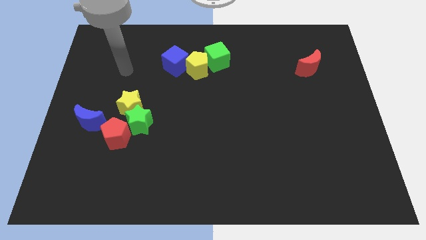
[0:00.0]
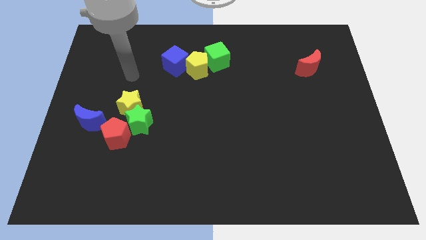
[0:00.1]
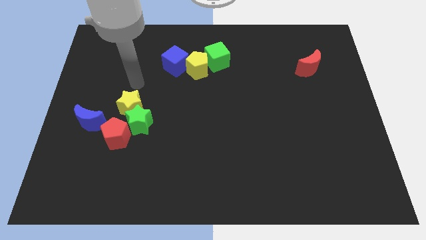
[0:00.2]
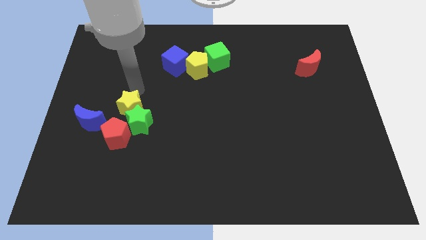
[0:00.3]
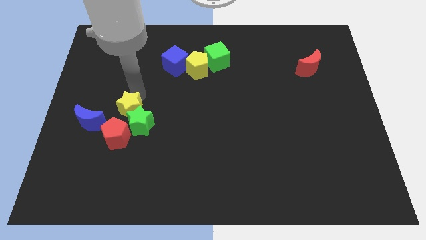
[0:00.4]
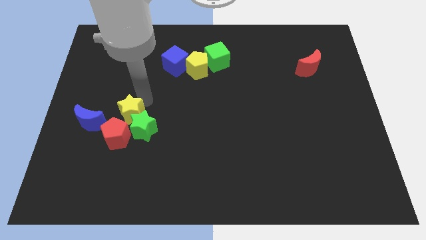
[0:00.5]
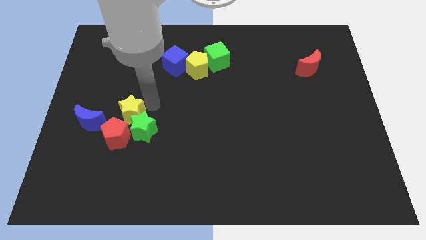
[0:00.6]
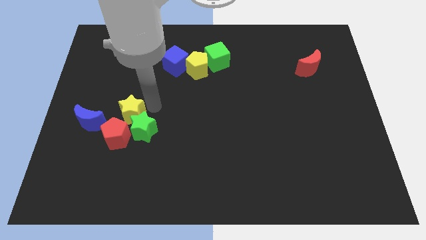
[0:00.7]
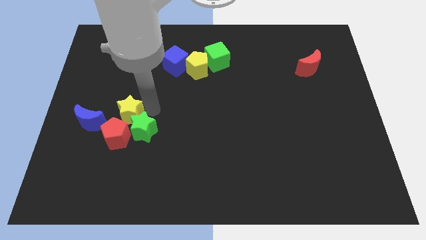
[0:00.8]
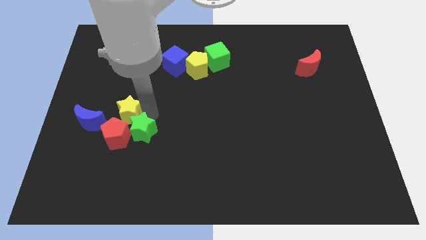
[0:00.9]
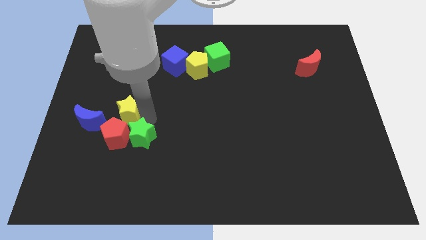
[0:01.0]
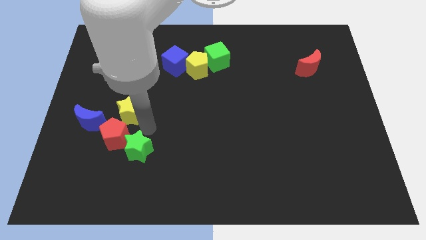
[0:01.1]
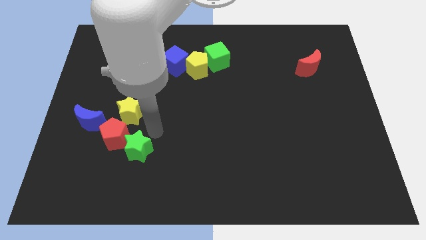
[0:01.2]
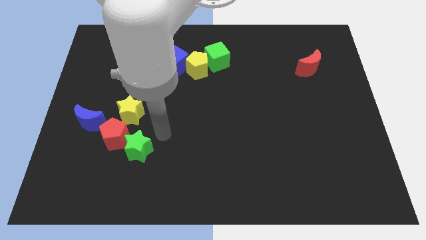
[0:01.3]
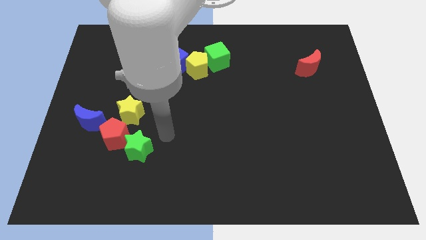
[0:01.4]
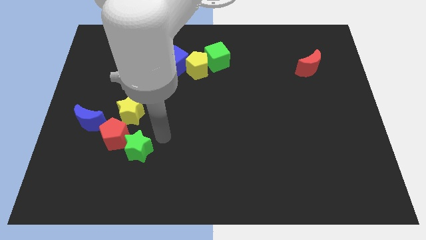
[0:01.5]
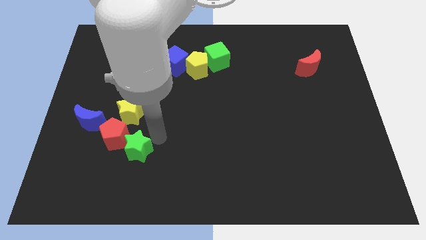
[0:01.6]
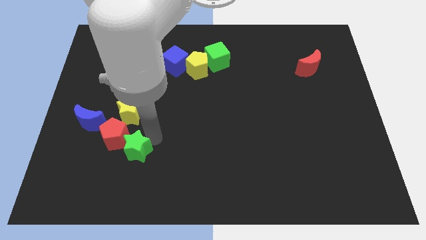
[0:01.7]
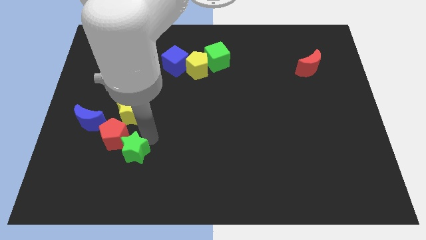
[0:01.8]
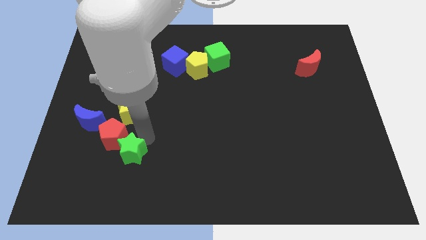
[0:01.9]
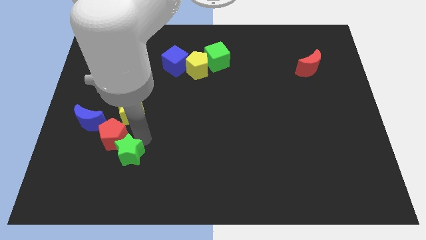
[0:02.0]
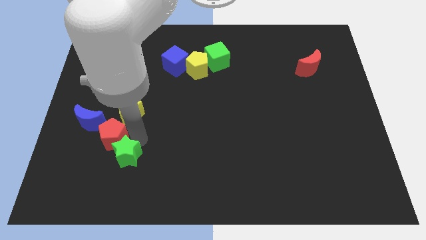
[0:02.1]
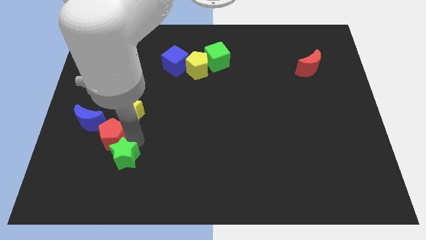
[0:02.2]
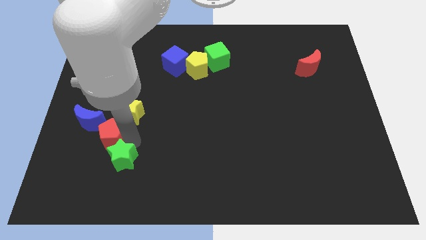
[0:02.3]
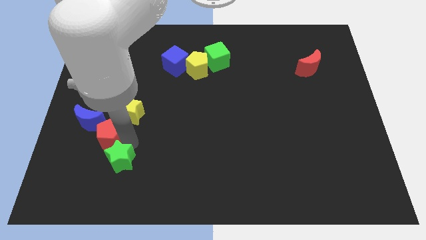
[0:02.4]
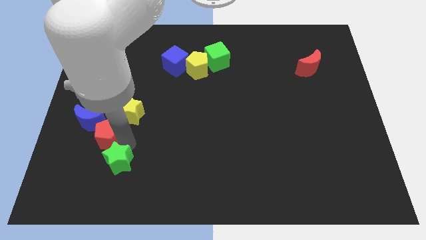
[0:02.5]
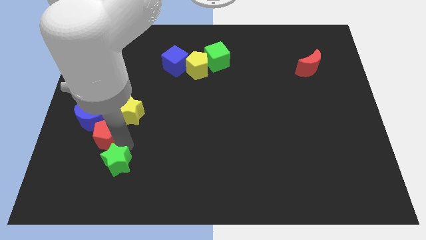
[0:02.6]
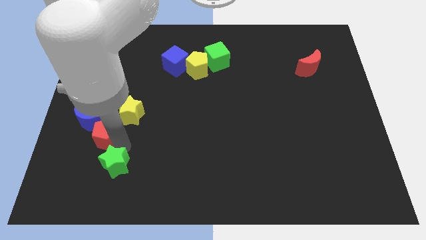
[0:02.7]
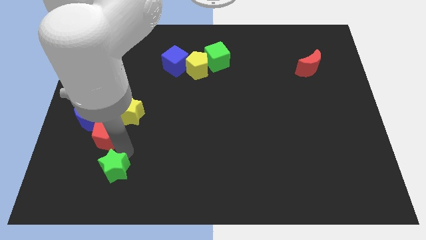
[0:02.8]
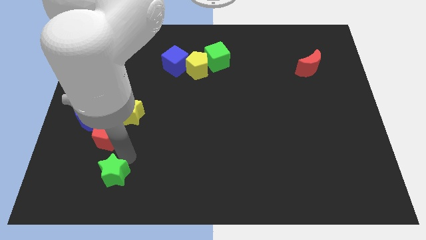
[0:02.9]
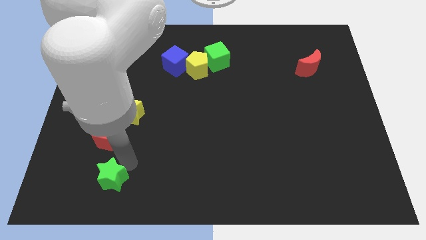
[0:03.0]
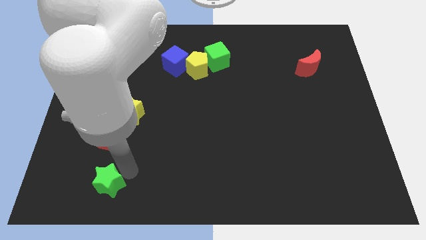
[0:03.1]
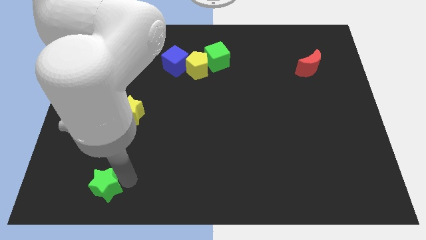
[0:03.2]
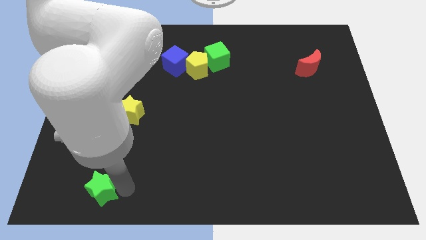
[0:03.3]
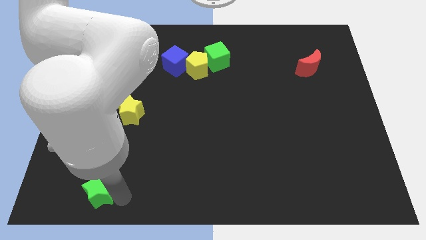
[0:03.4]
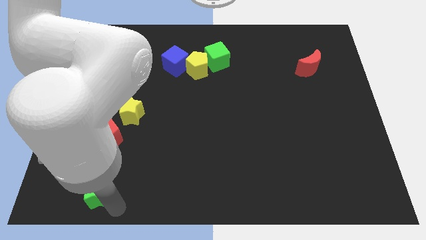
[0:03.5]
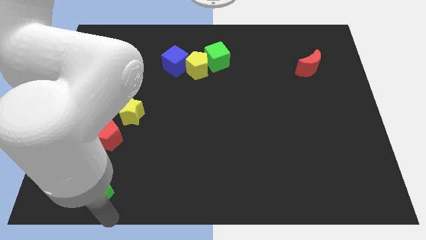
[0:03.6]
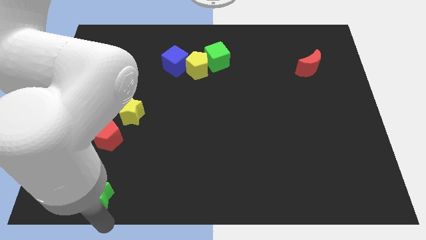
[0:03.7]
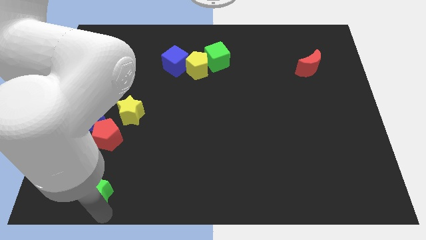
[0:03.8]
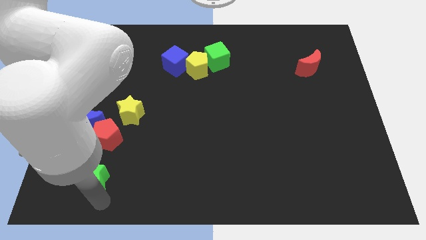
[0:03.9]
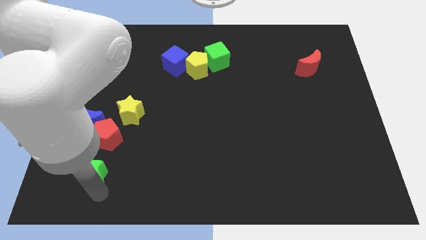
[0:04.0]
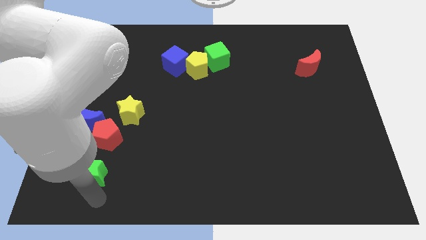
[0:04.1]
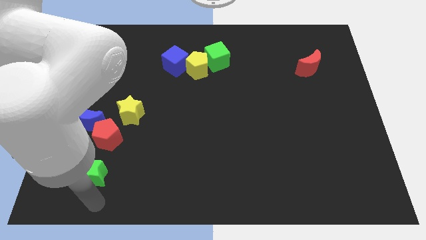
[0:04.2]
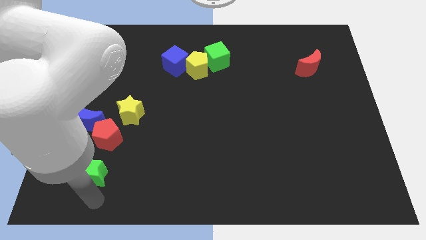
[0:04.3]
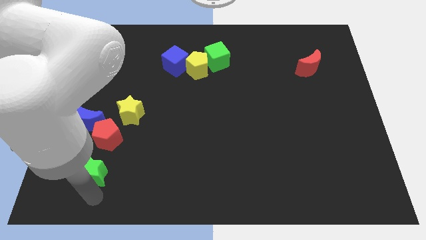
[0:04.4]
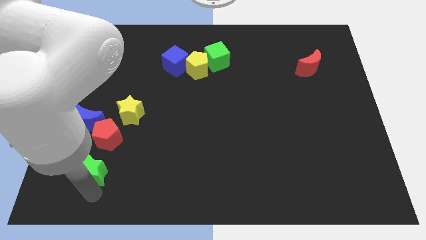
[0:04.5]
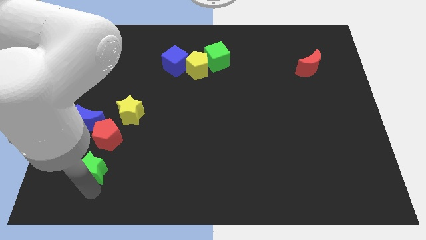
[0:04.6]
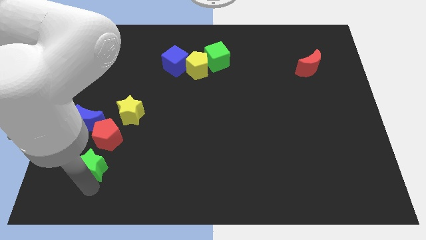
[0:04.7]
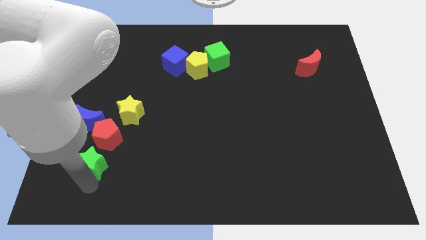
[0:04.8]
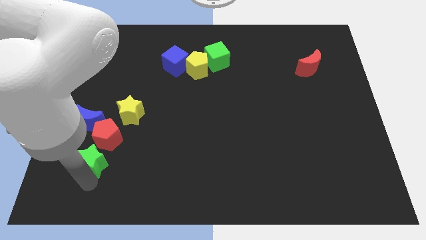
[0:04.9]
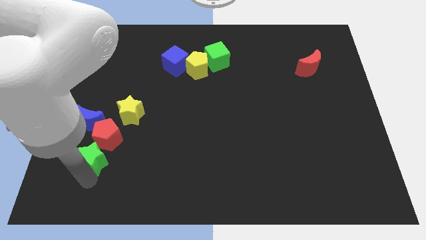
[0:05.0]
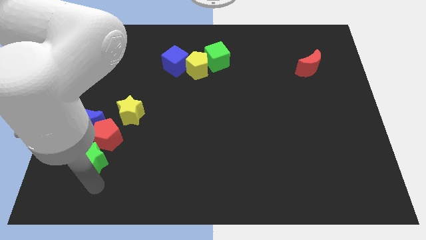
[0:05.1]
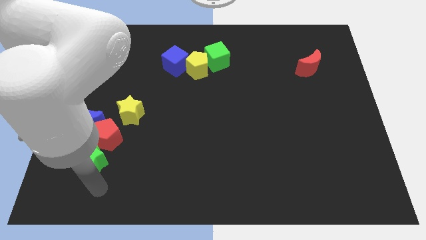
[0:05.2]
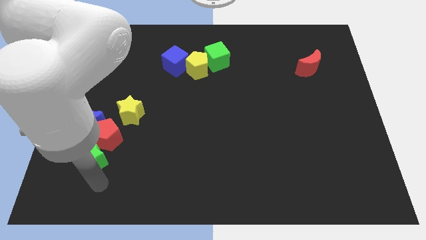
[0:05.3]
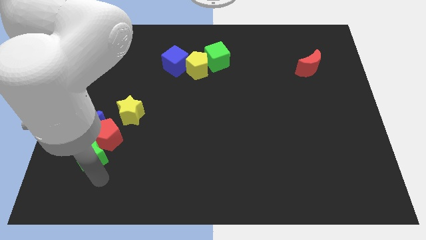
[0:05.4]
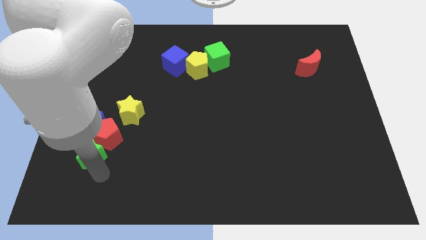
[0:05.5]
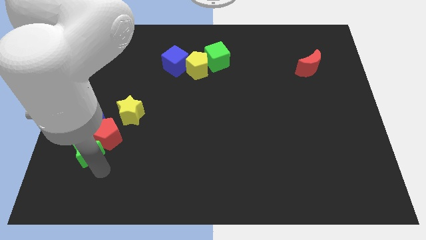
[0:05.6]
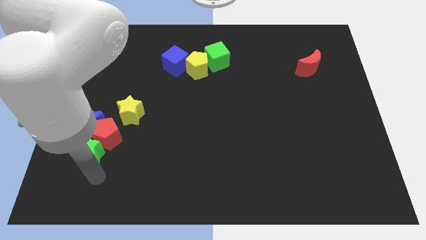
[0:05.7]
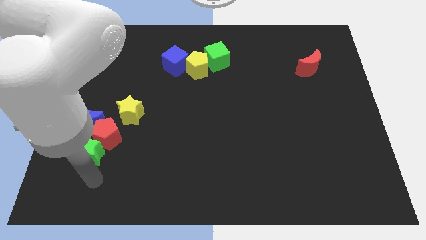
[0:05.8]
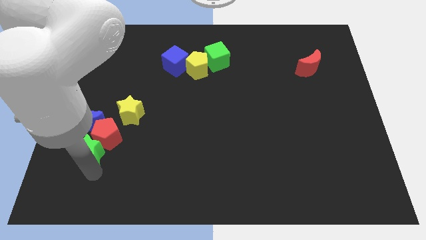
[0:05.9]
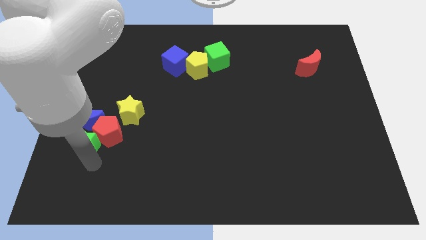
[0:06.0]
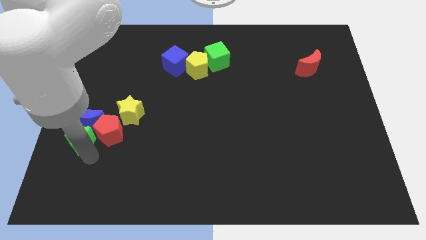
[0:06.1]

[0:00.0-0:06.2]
move the green star to the blue moon

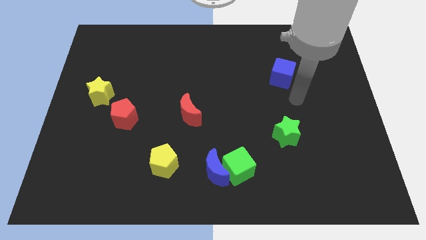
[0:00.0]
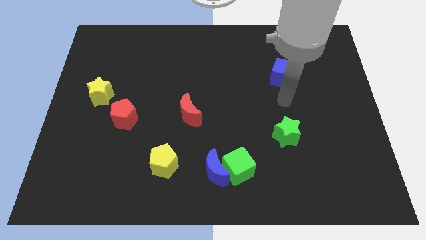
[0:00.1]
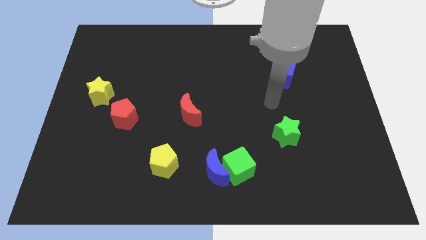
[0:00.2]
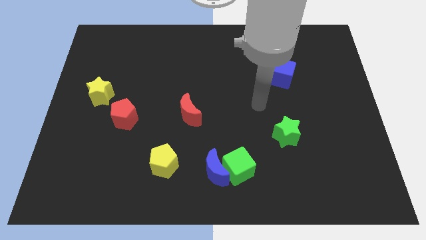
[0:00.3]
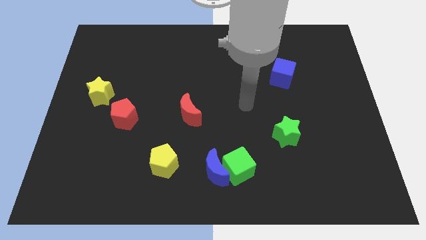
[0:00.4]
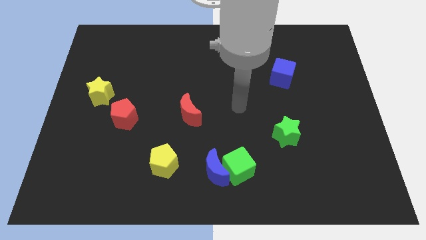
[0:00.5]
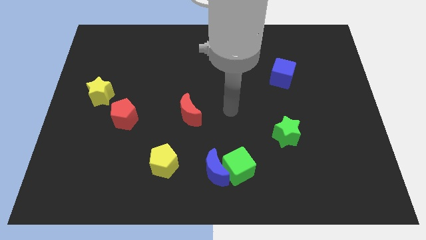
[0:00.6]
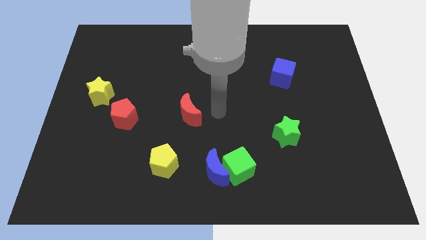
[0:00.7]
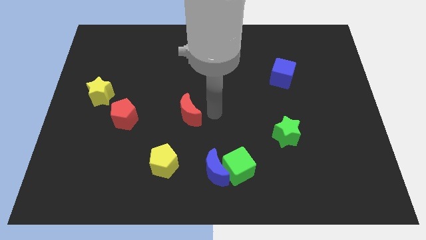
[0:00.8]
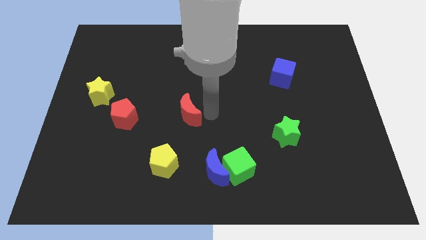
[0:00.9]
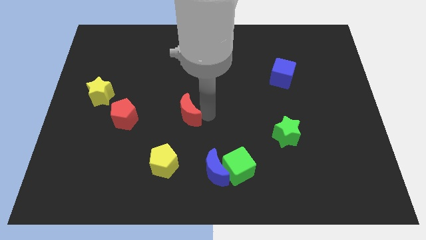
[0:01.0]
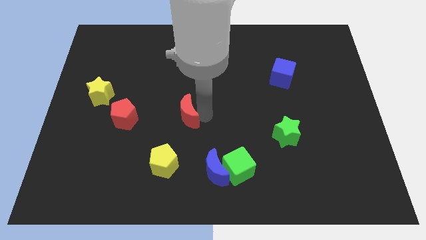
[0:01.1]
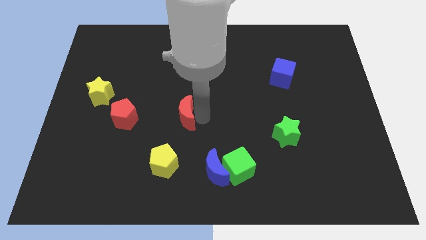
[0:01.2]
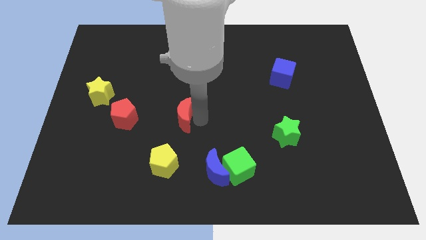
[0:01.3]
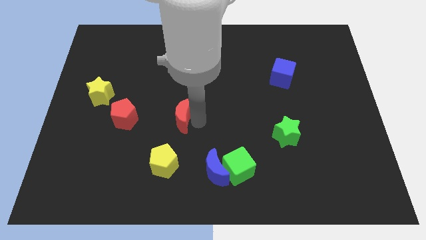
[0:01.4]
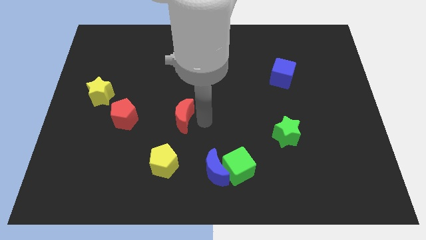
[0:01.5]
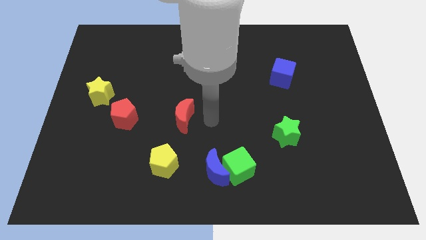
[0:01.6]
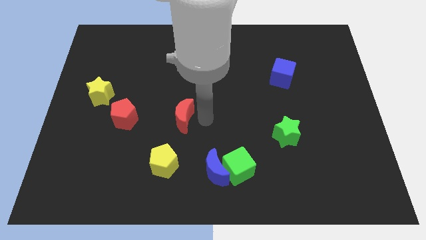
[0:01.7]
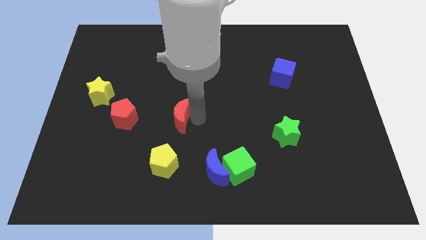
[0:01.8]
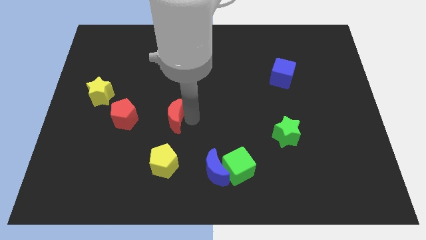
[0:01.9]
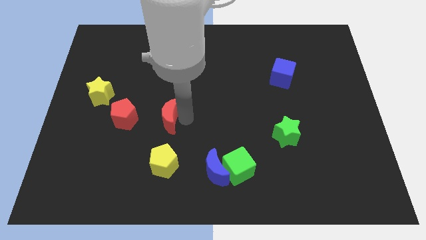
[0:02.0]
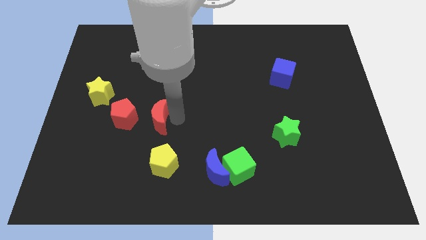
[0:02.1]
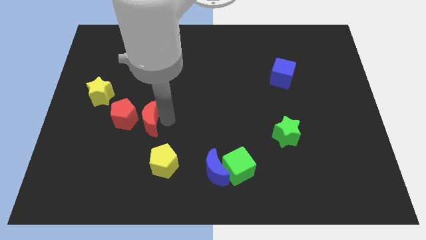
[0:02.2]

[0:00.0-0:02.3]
move the red moon towards the red pentagon
